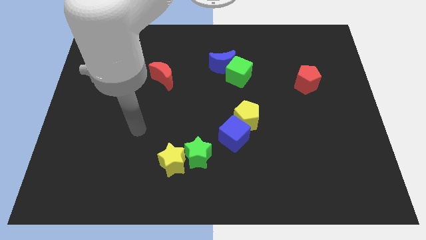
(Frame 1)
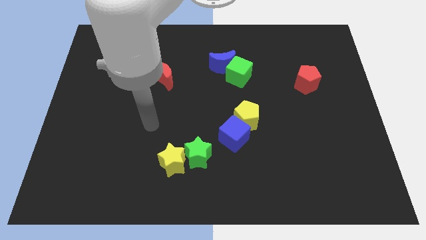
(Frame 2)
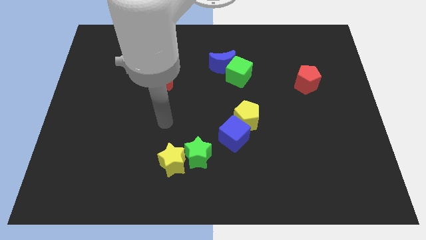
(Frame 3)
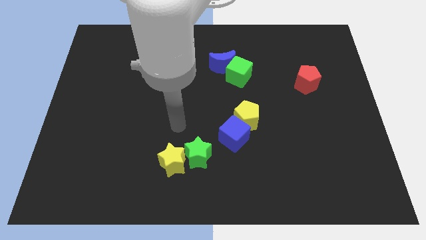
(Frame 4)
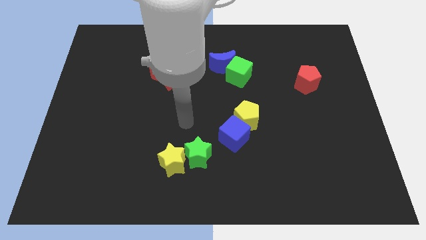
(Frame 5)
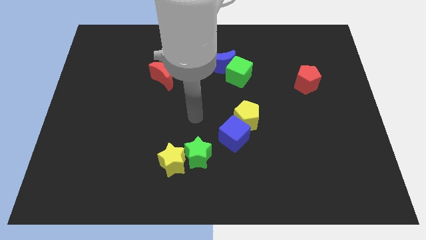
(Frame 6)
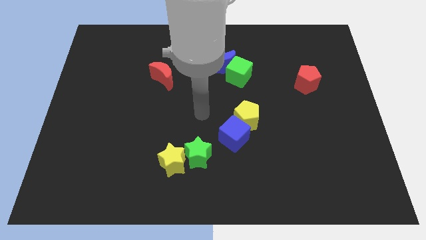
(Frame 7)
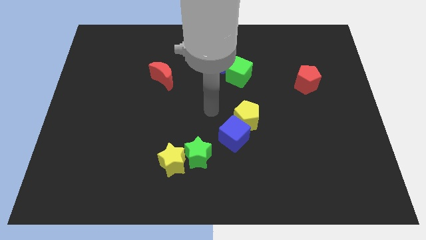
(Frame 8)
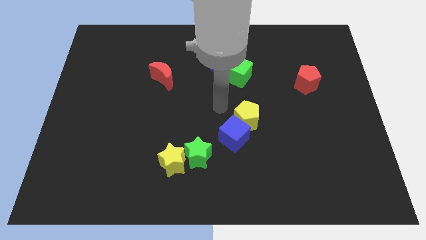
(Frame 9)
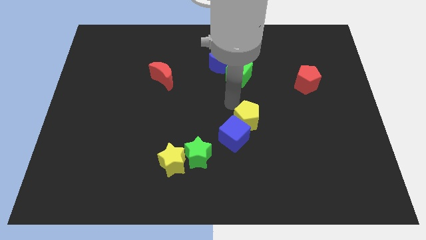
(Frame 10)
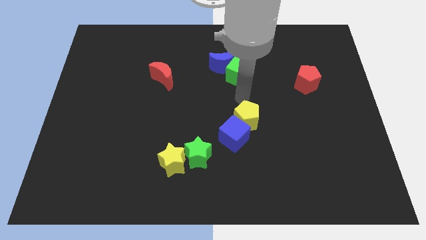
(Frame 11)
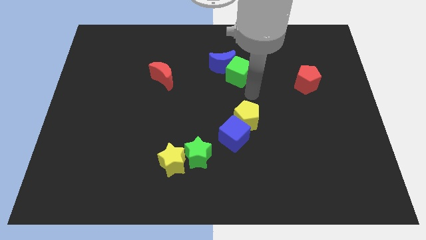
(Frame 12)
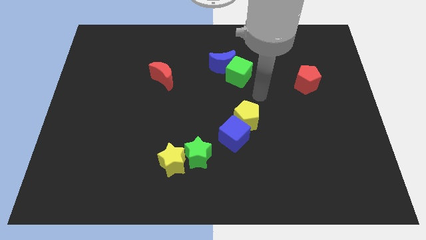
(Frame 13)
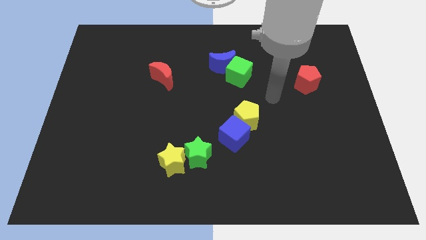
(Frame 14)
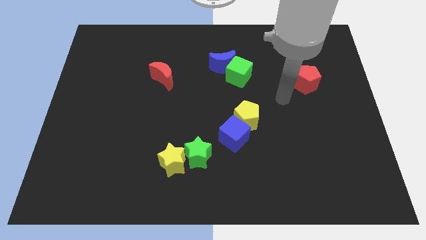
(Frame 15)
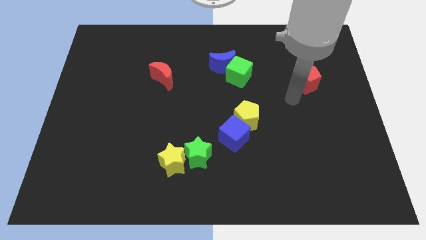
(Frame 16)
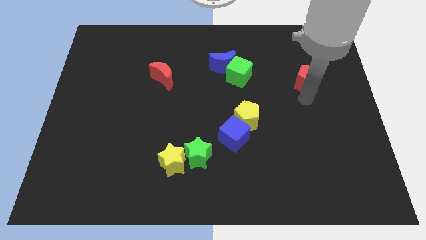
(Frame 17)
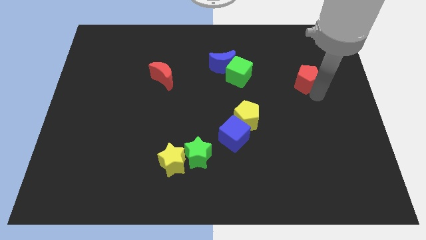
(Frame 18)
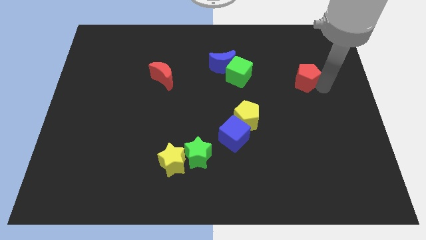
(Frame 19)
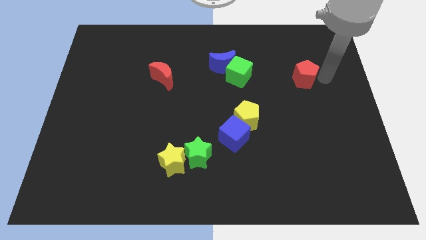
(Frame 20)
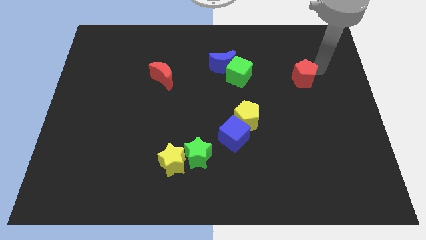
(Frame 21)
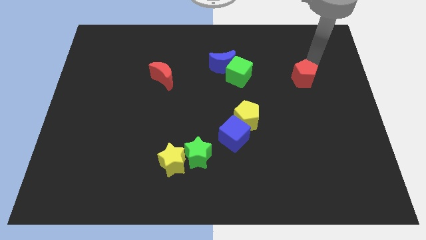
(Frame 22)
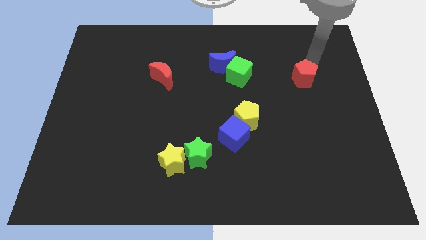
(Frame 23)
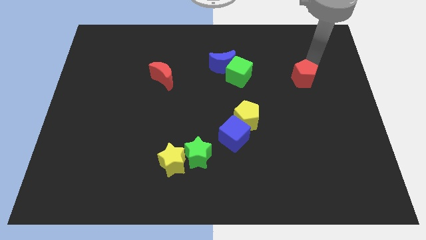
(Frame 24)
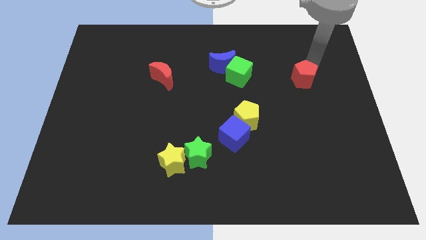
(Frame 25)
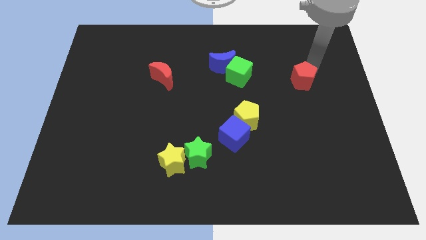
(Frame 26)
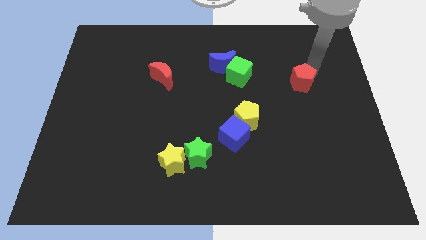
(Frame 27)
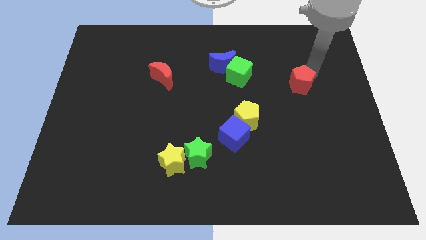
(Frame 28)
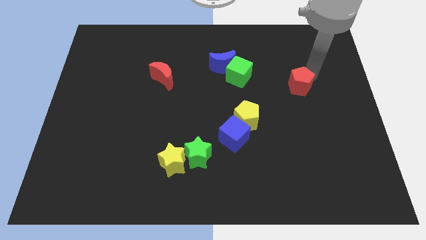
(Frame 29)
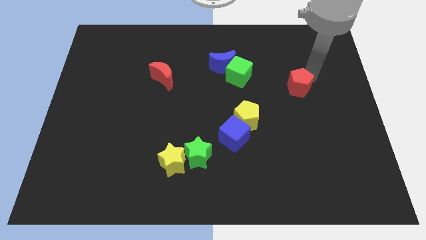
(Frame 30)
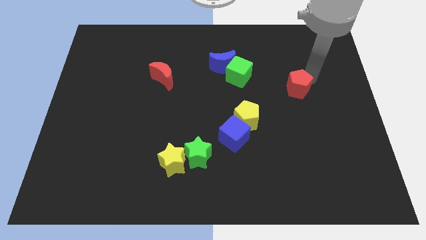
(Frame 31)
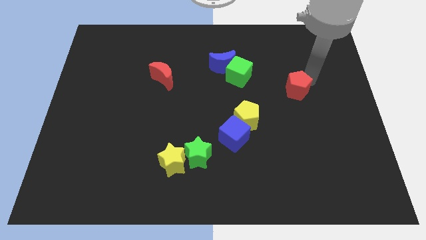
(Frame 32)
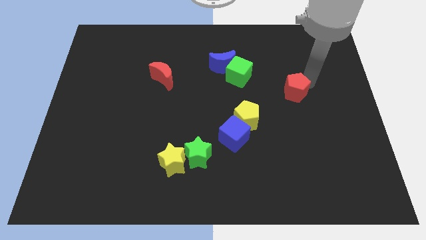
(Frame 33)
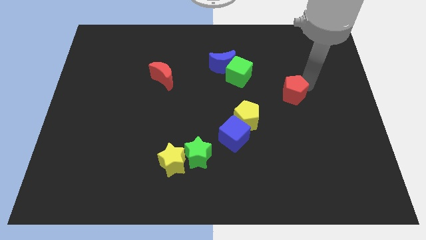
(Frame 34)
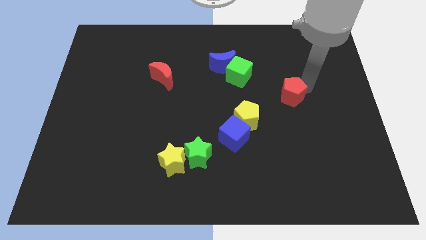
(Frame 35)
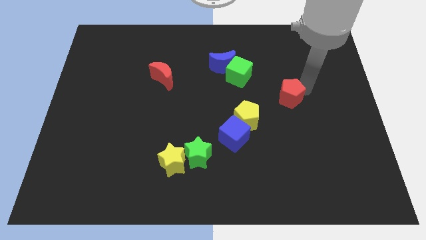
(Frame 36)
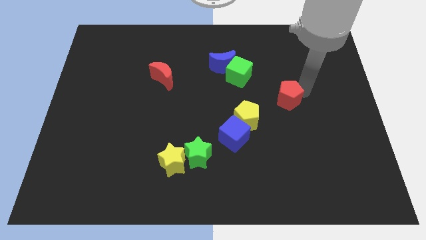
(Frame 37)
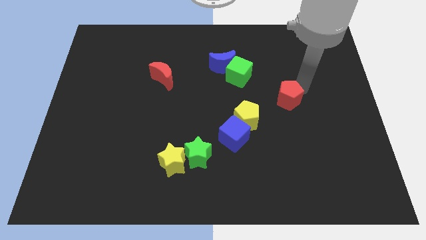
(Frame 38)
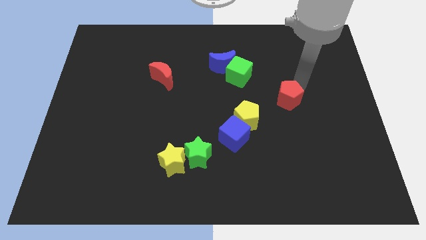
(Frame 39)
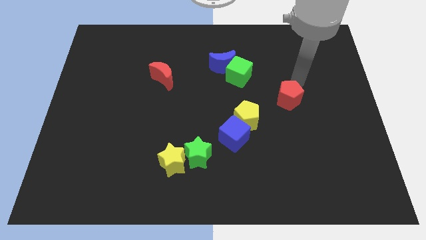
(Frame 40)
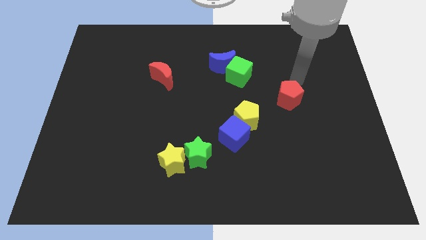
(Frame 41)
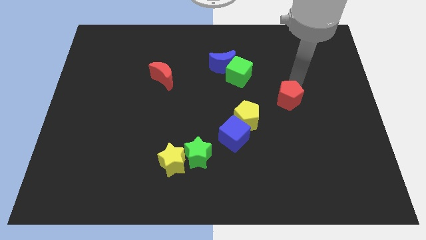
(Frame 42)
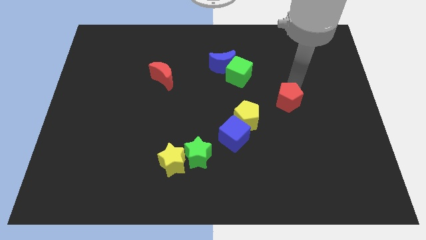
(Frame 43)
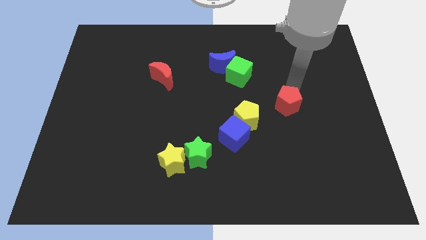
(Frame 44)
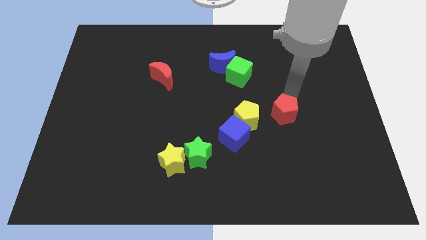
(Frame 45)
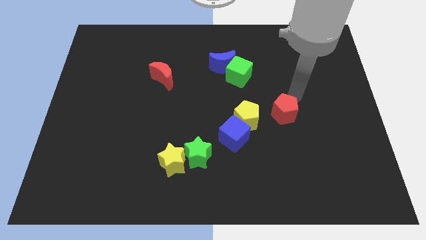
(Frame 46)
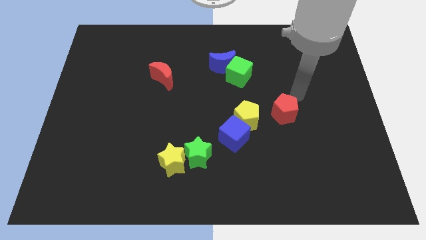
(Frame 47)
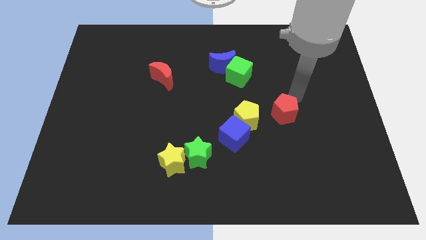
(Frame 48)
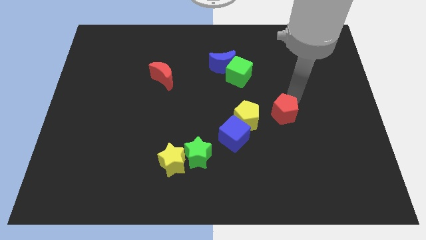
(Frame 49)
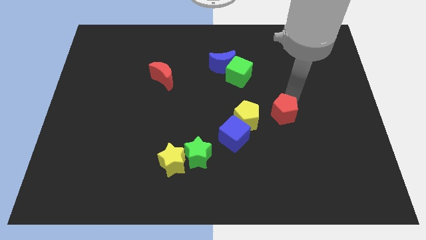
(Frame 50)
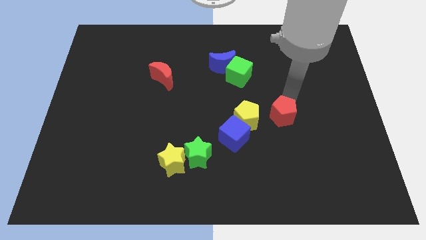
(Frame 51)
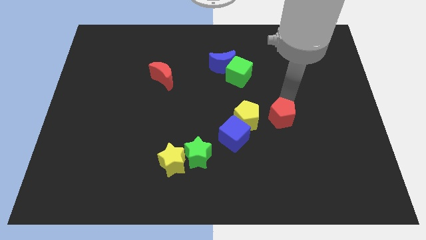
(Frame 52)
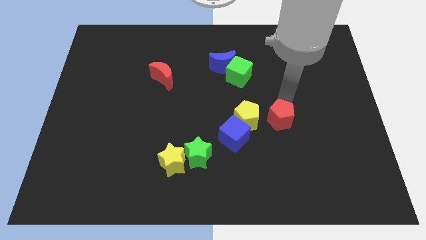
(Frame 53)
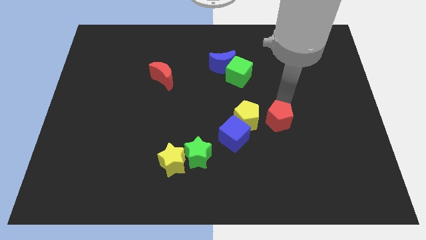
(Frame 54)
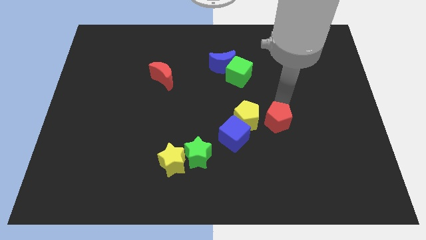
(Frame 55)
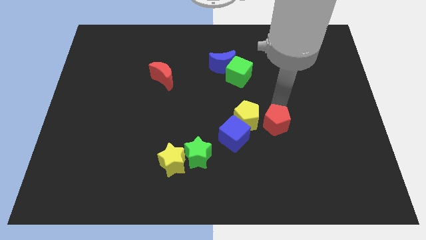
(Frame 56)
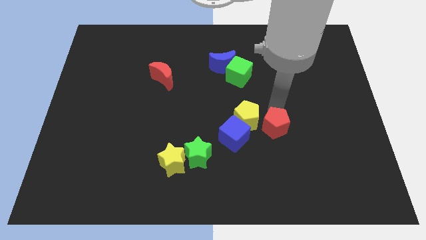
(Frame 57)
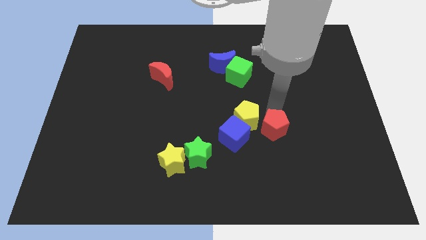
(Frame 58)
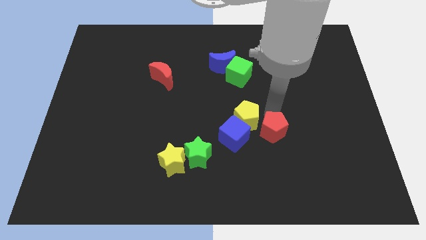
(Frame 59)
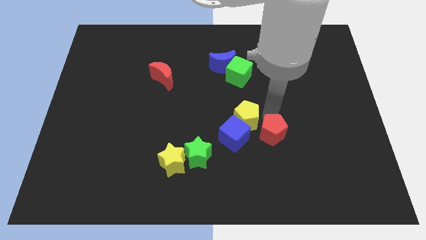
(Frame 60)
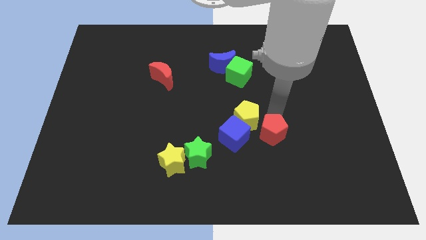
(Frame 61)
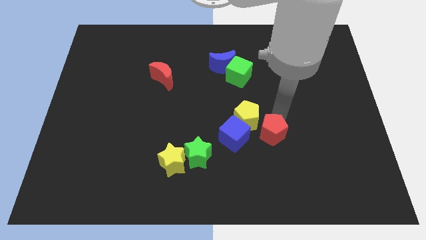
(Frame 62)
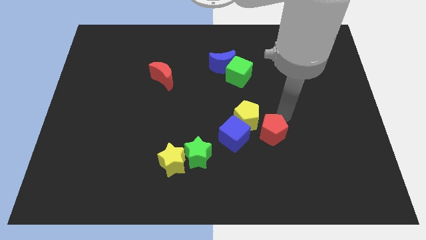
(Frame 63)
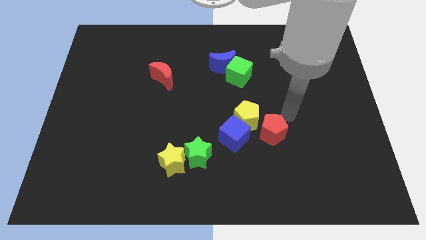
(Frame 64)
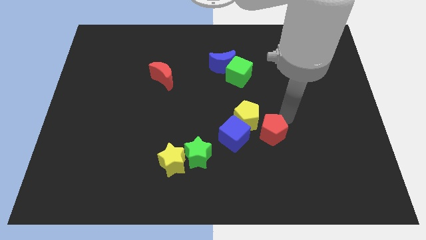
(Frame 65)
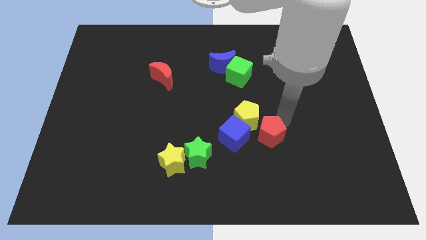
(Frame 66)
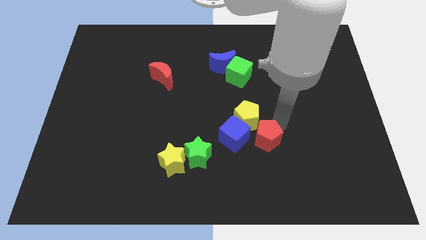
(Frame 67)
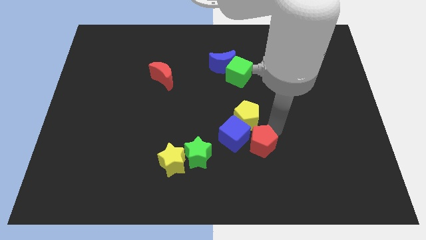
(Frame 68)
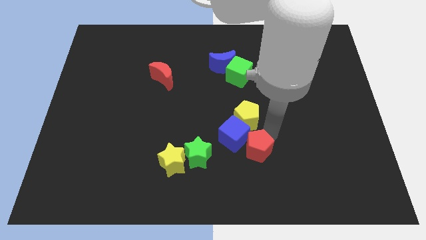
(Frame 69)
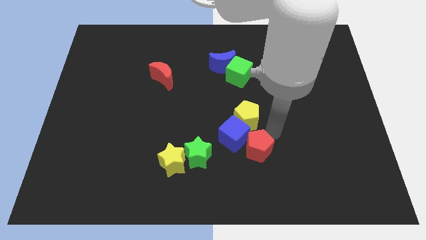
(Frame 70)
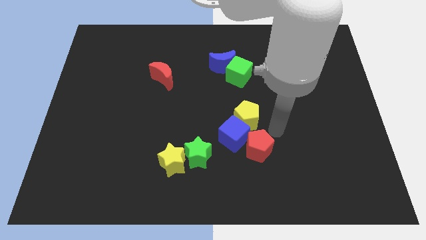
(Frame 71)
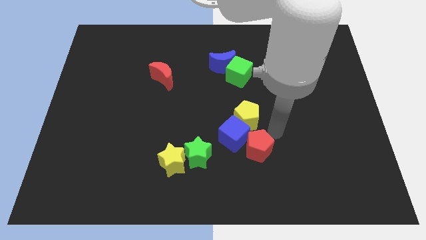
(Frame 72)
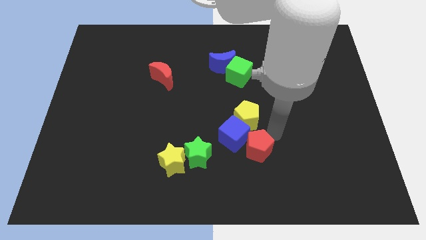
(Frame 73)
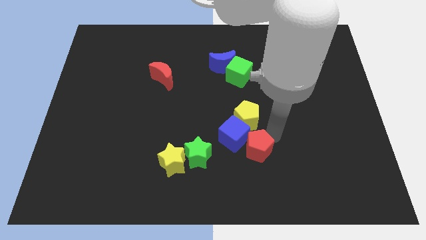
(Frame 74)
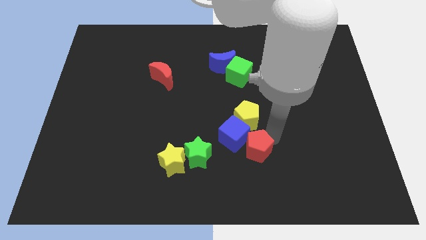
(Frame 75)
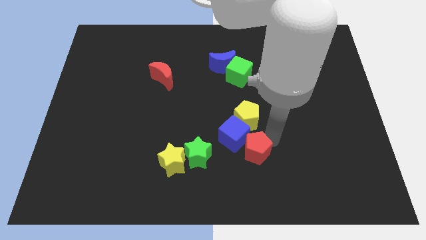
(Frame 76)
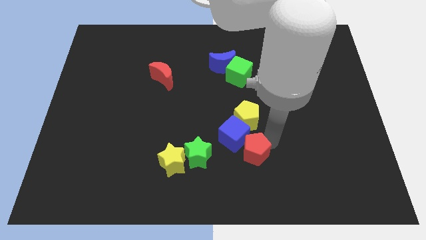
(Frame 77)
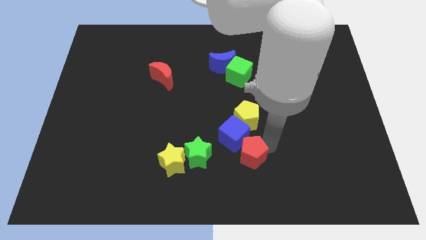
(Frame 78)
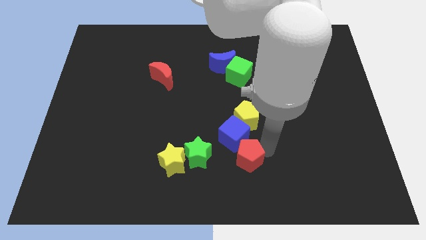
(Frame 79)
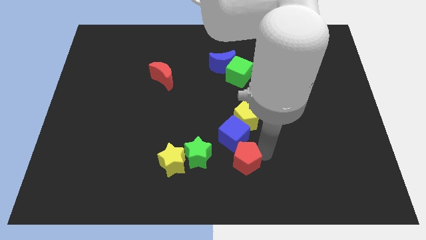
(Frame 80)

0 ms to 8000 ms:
slide the red pentagon to the bottom
